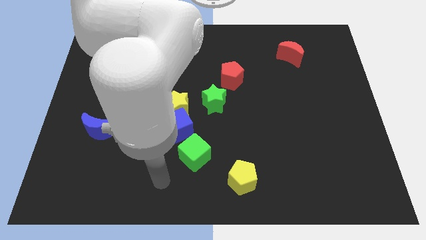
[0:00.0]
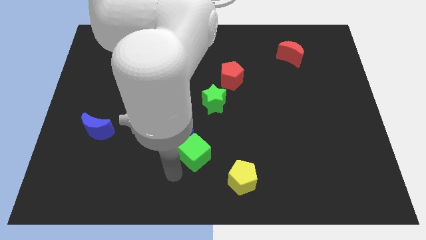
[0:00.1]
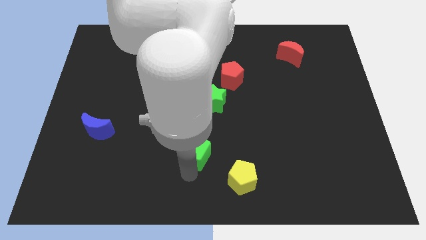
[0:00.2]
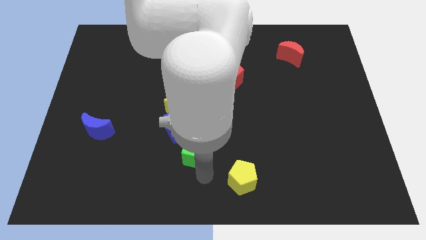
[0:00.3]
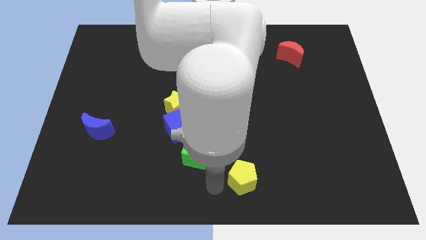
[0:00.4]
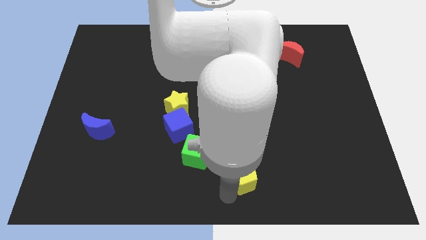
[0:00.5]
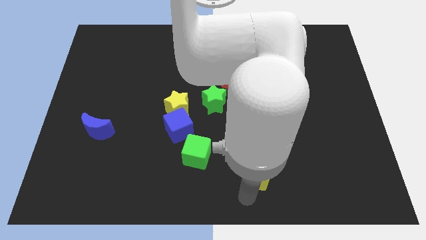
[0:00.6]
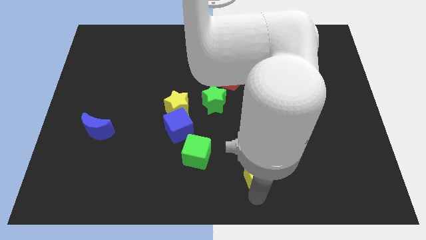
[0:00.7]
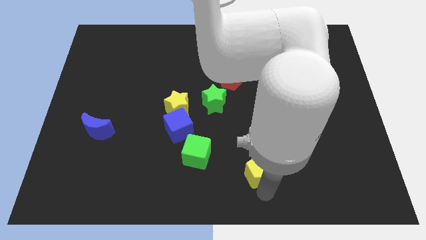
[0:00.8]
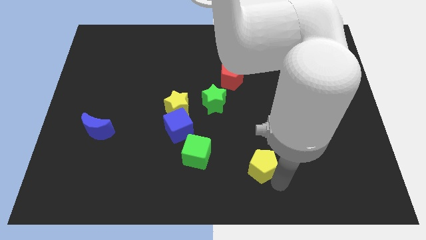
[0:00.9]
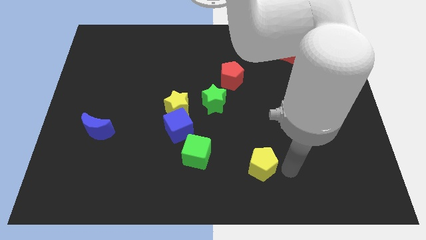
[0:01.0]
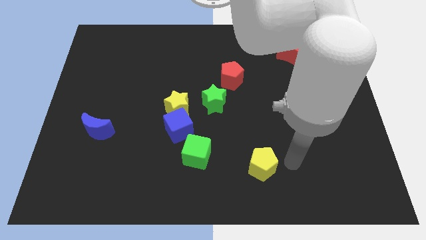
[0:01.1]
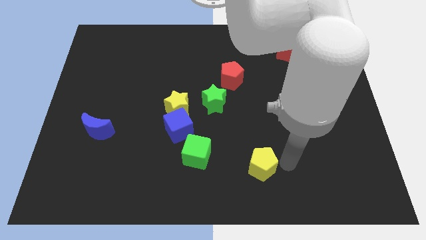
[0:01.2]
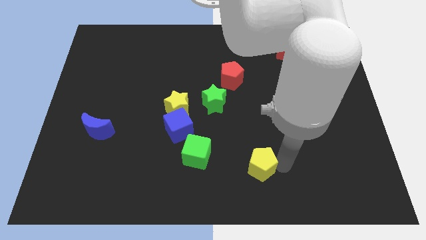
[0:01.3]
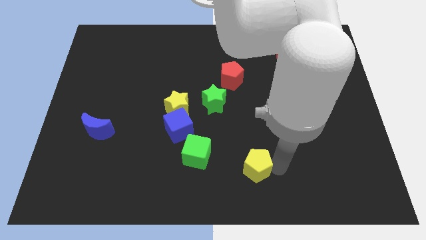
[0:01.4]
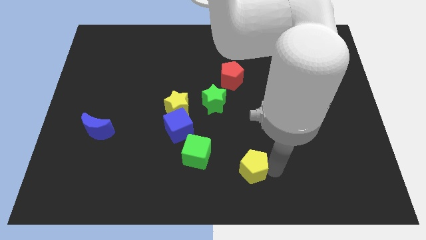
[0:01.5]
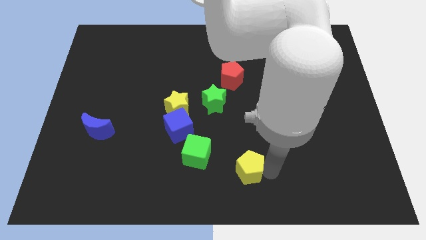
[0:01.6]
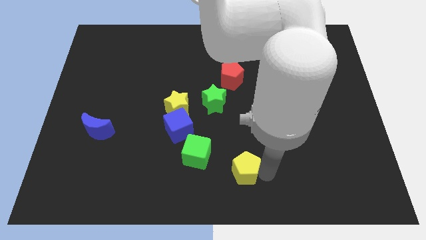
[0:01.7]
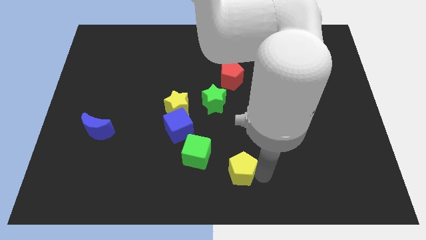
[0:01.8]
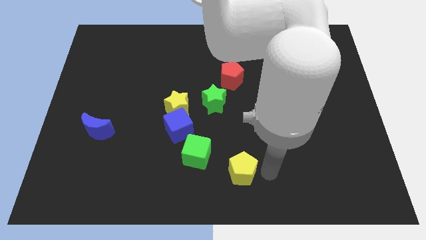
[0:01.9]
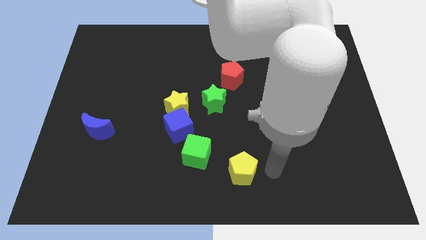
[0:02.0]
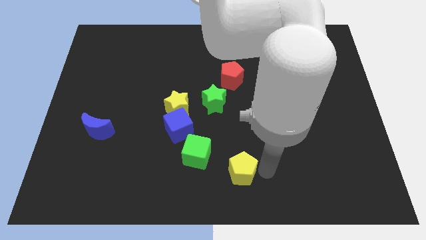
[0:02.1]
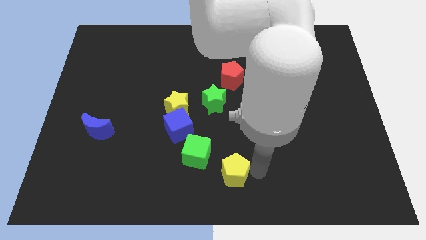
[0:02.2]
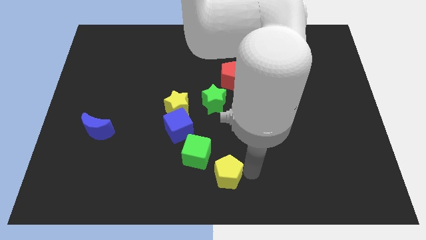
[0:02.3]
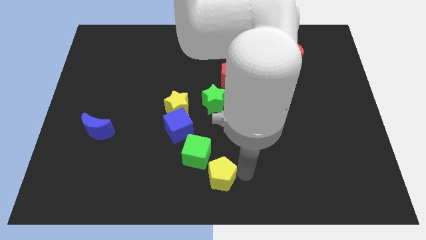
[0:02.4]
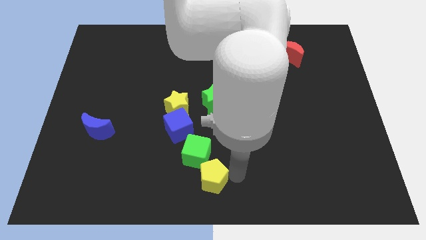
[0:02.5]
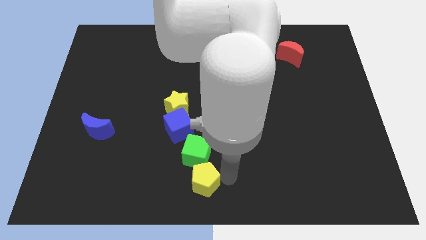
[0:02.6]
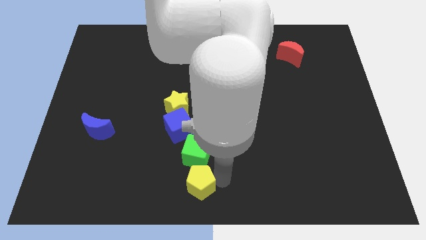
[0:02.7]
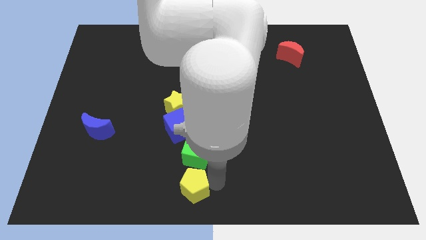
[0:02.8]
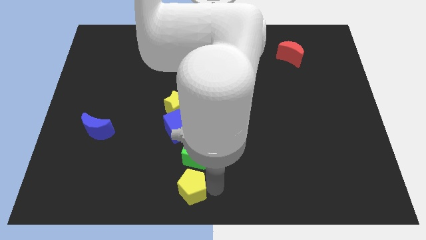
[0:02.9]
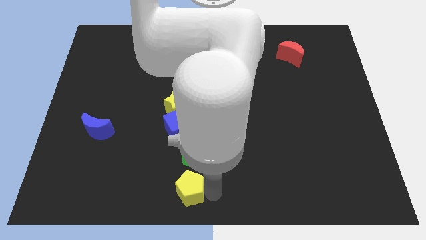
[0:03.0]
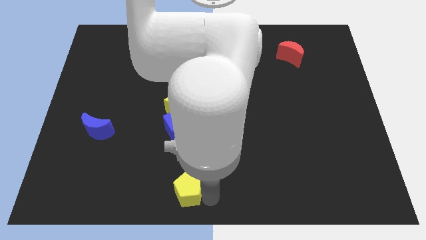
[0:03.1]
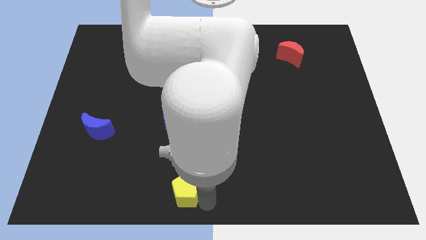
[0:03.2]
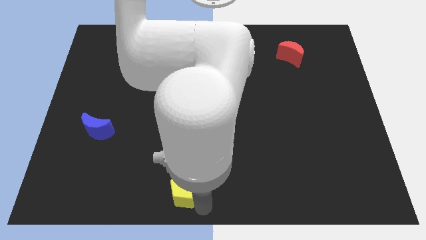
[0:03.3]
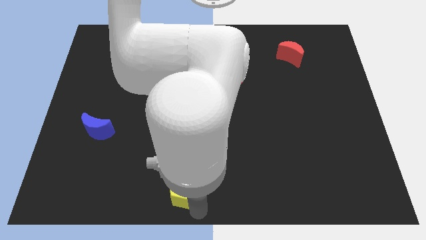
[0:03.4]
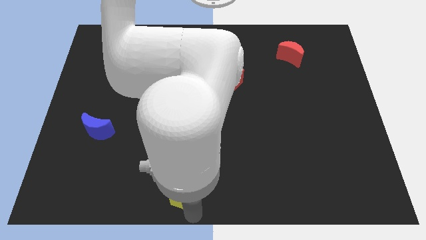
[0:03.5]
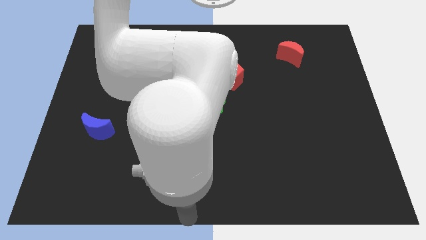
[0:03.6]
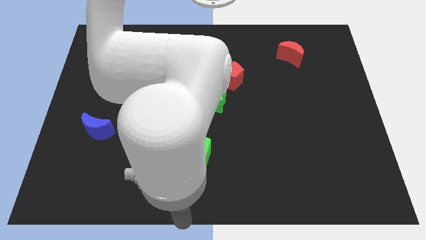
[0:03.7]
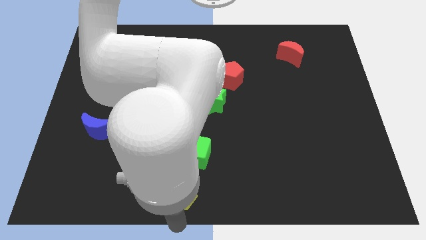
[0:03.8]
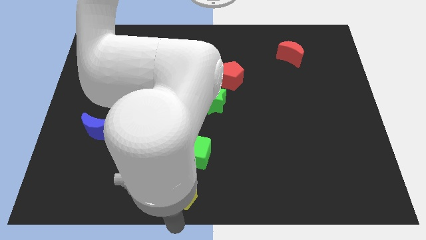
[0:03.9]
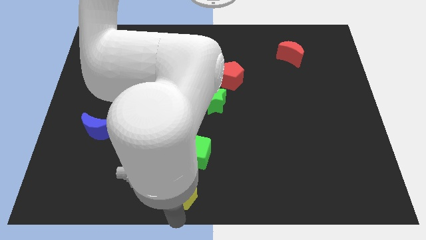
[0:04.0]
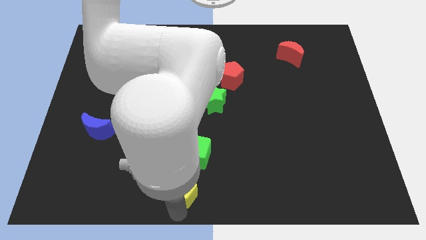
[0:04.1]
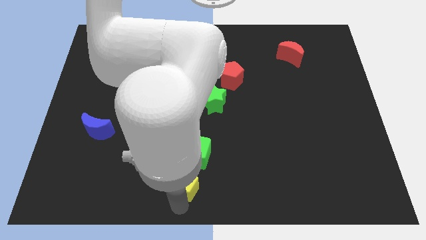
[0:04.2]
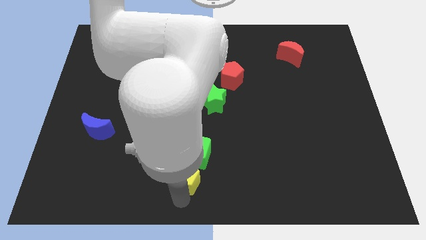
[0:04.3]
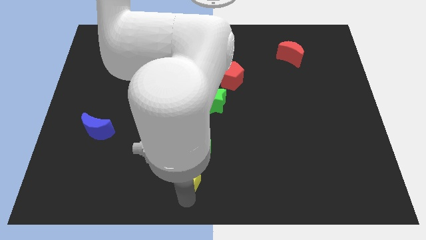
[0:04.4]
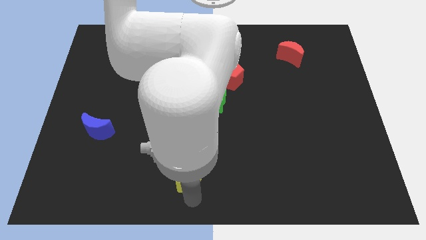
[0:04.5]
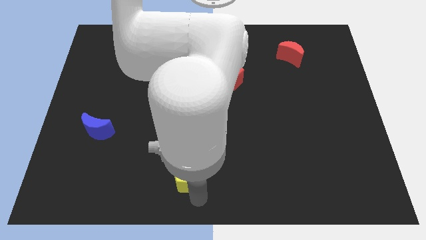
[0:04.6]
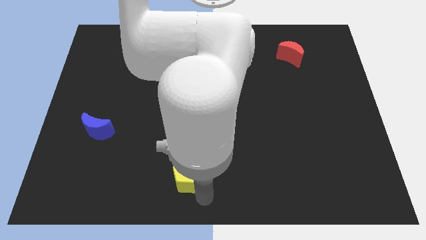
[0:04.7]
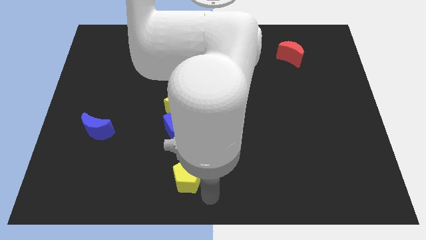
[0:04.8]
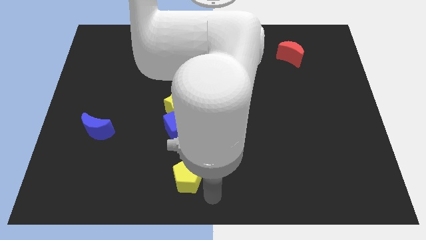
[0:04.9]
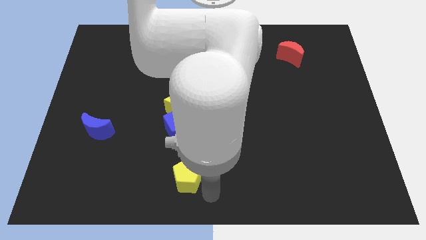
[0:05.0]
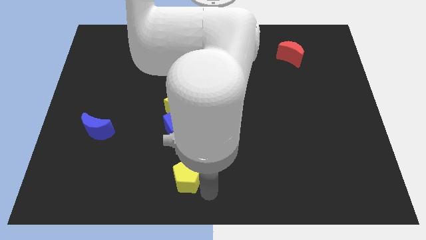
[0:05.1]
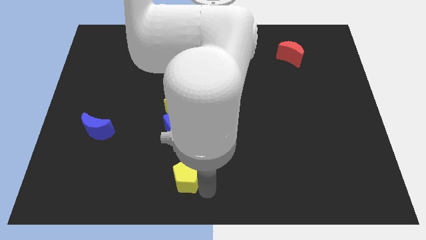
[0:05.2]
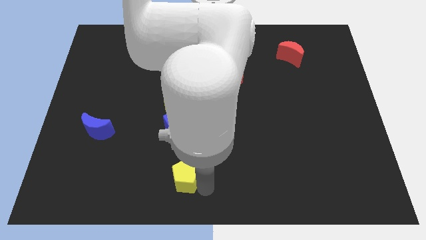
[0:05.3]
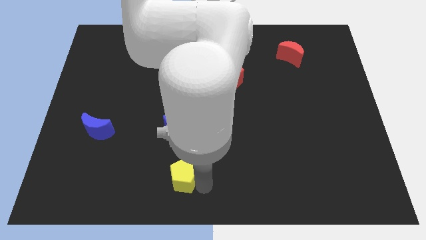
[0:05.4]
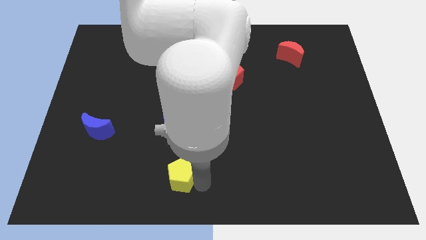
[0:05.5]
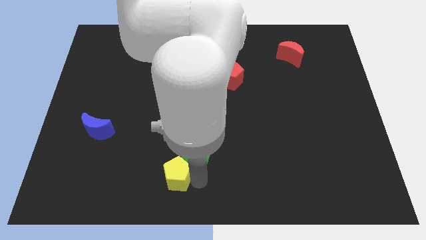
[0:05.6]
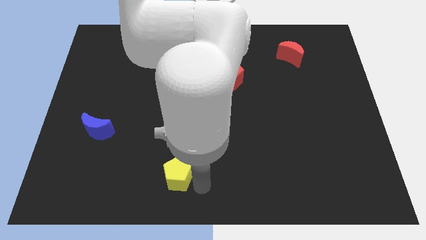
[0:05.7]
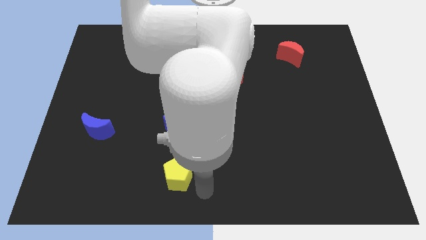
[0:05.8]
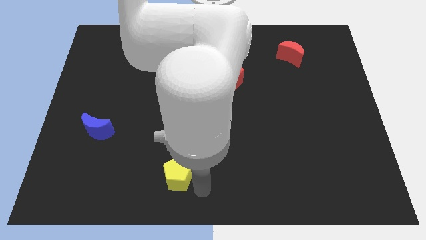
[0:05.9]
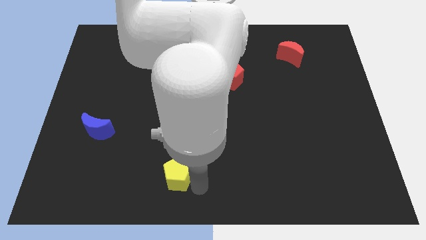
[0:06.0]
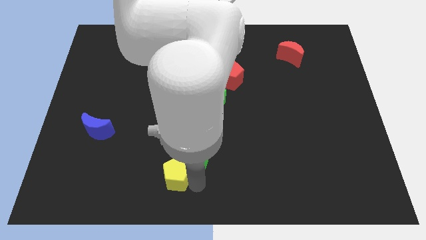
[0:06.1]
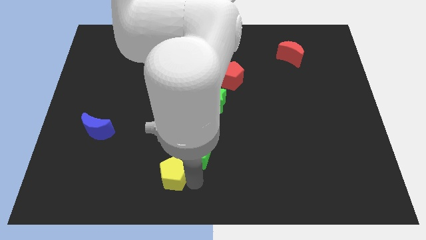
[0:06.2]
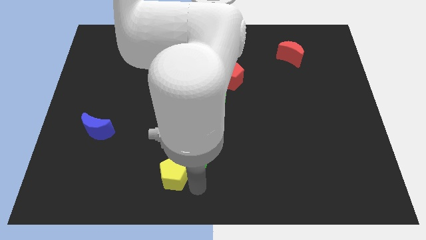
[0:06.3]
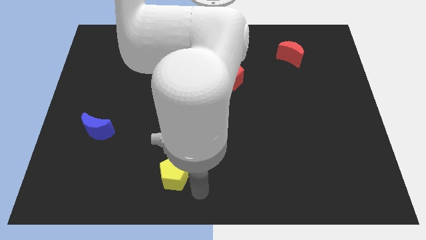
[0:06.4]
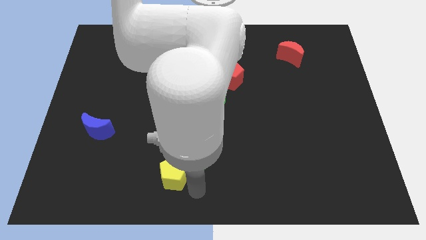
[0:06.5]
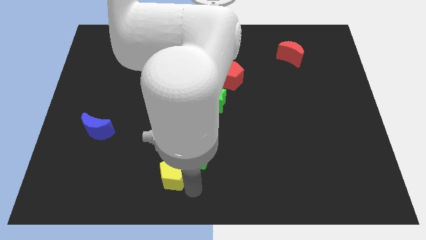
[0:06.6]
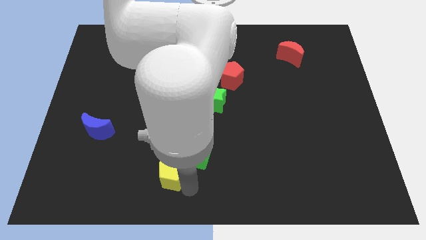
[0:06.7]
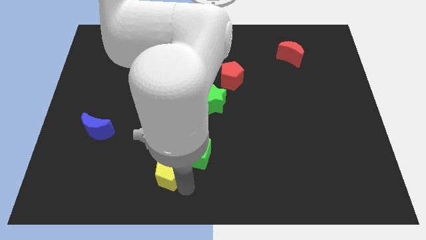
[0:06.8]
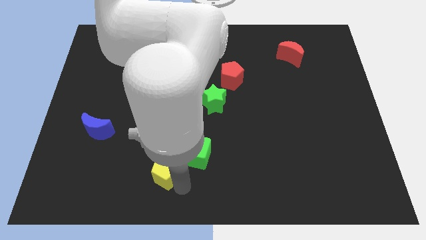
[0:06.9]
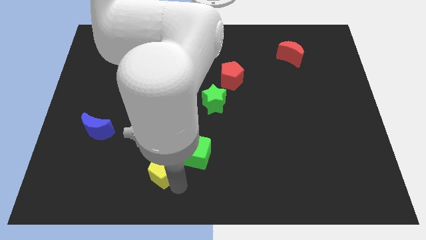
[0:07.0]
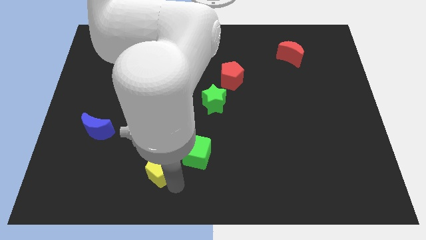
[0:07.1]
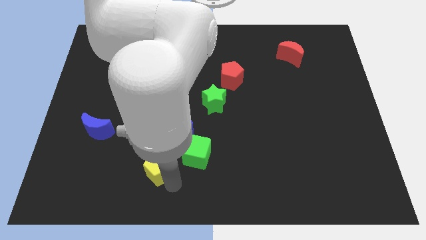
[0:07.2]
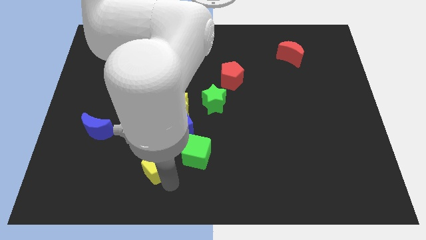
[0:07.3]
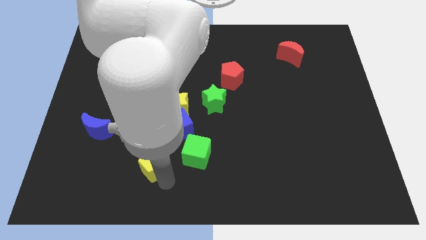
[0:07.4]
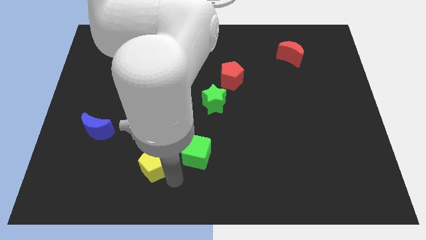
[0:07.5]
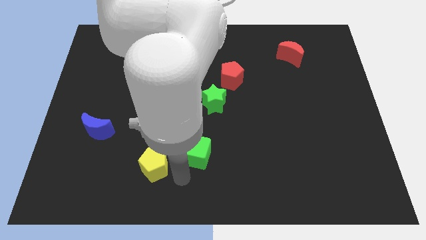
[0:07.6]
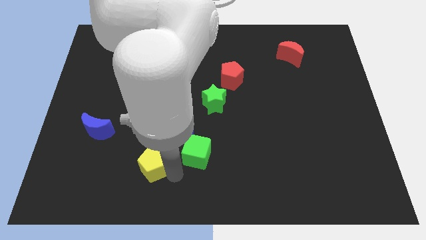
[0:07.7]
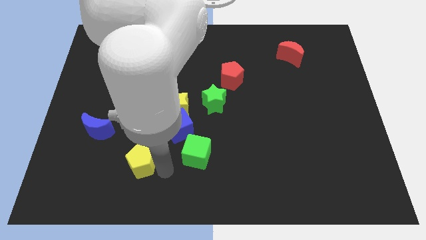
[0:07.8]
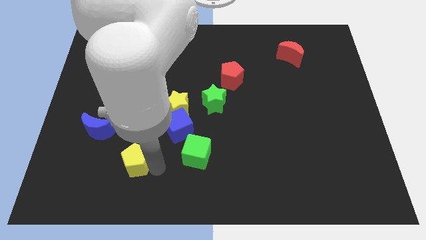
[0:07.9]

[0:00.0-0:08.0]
push the yellow pentagon diagonally down and to the right of the blue moon
